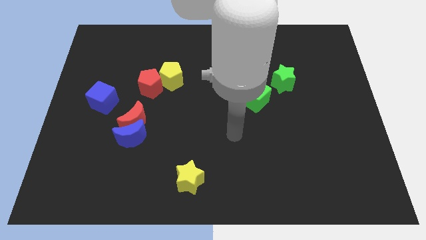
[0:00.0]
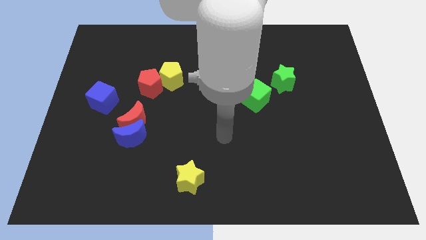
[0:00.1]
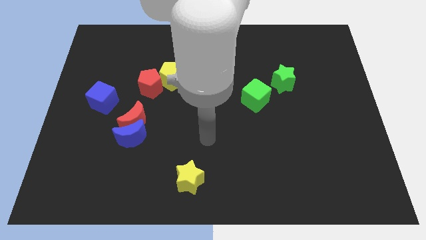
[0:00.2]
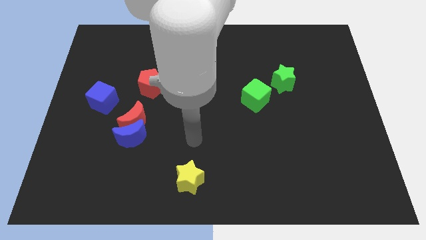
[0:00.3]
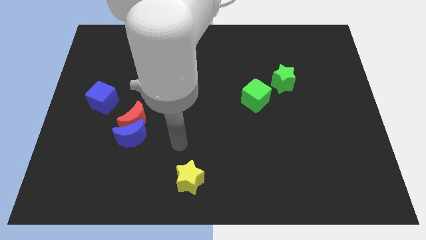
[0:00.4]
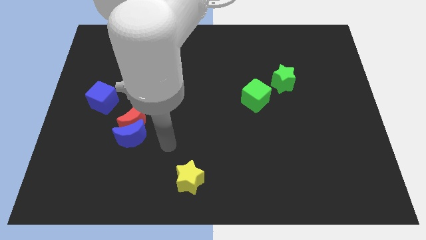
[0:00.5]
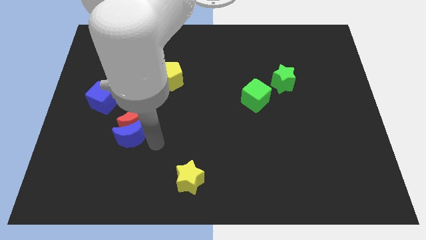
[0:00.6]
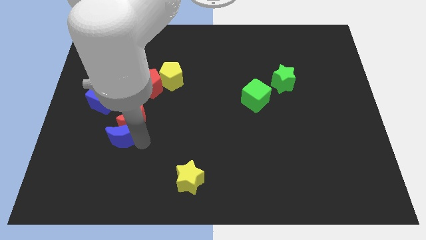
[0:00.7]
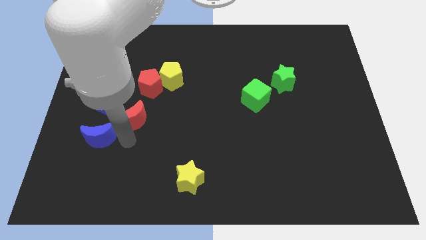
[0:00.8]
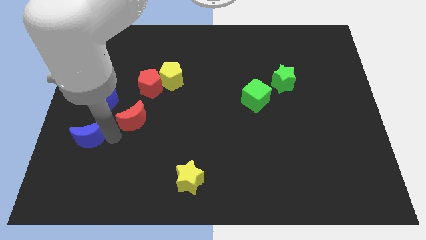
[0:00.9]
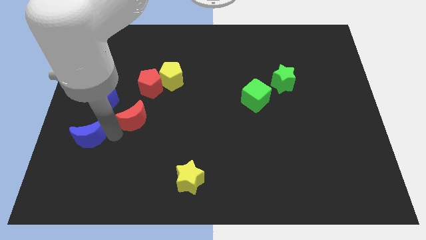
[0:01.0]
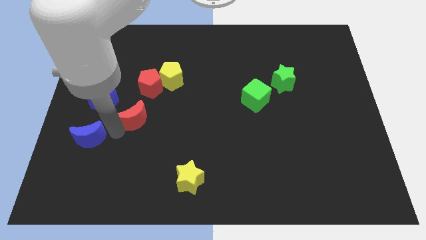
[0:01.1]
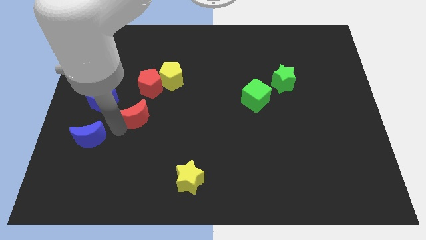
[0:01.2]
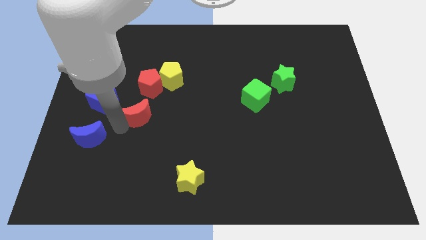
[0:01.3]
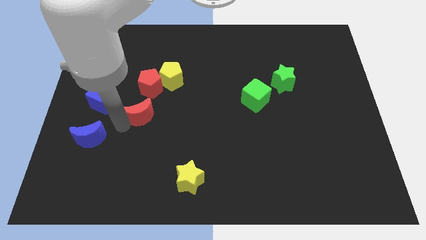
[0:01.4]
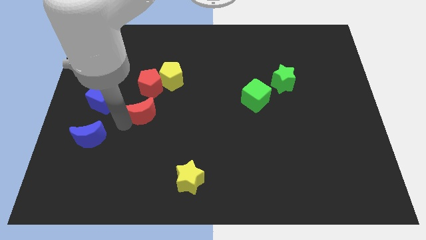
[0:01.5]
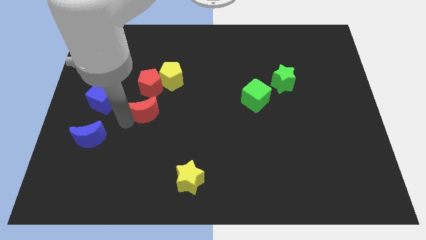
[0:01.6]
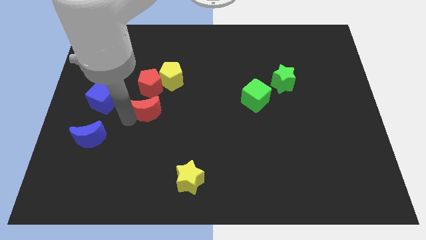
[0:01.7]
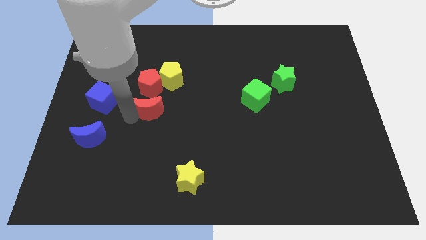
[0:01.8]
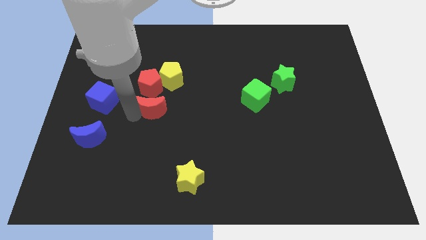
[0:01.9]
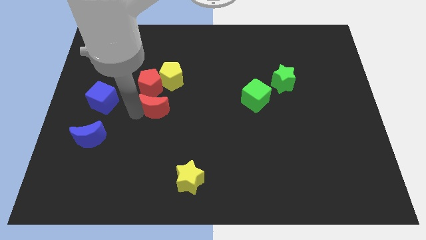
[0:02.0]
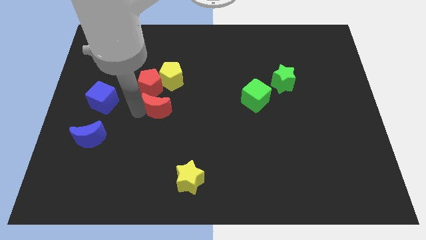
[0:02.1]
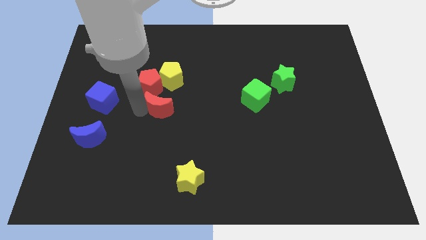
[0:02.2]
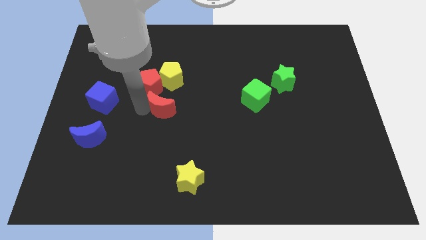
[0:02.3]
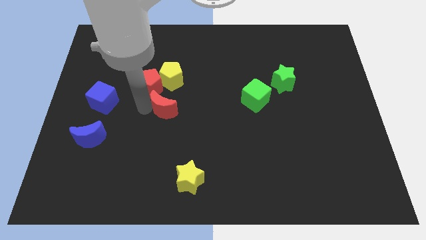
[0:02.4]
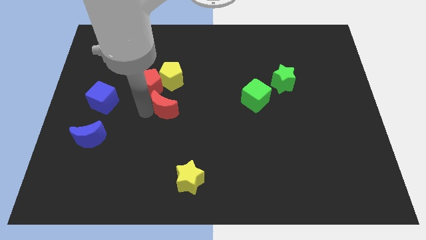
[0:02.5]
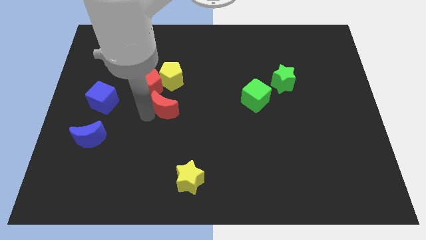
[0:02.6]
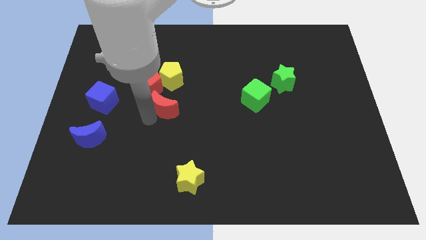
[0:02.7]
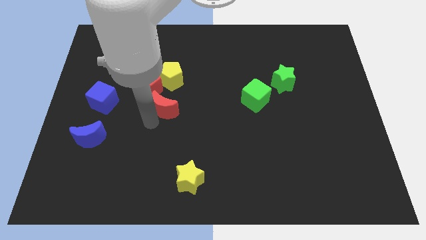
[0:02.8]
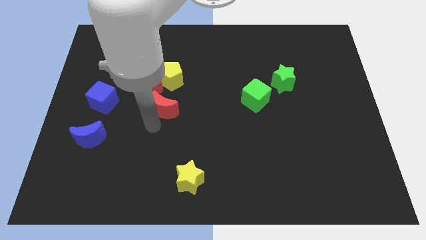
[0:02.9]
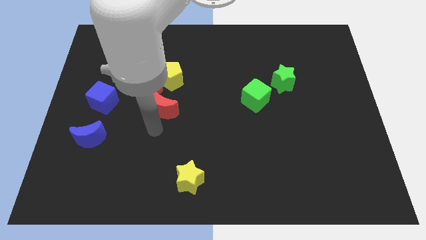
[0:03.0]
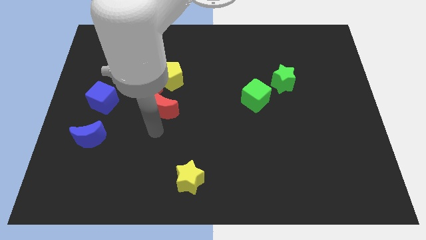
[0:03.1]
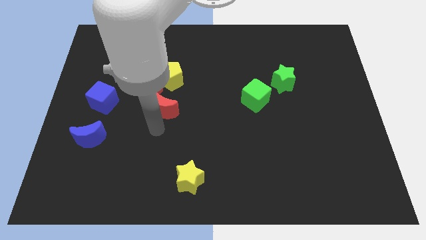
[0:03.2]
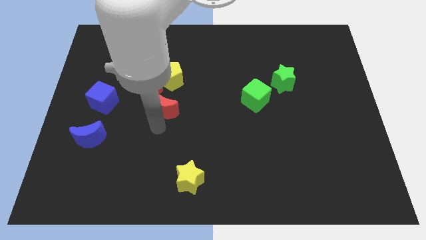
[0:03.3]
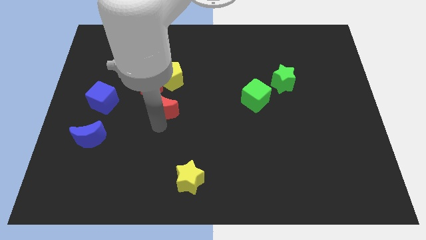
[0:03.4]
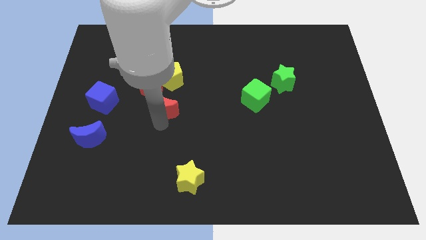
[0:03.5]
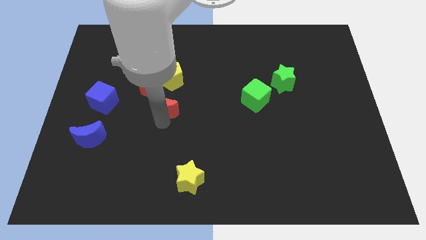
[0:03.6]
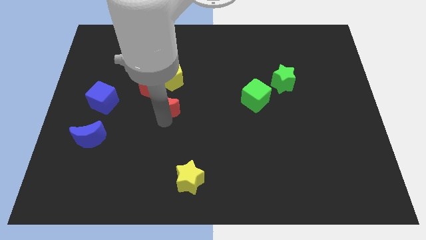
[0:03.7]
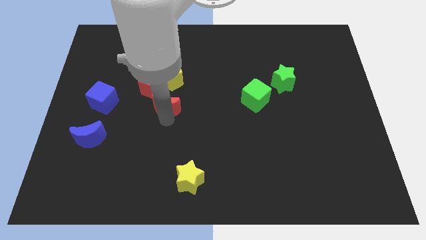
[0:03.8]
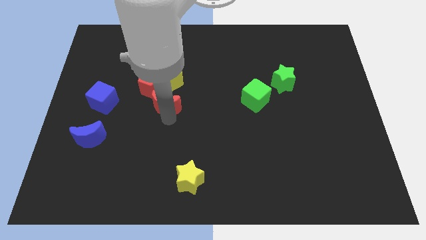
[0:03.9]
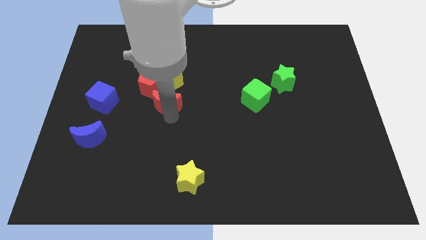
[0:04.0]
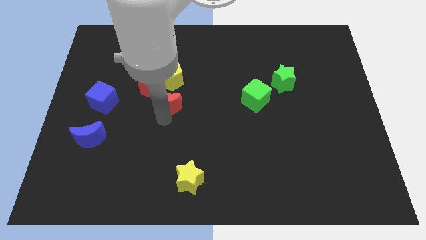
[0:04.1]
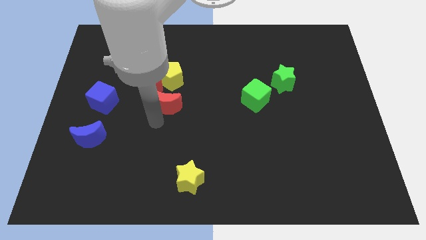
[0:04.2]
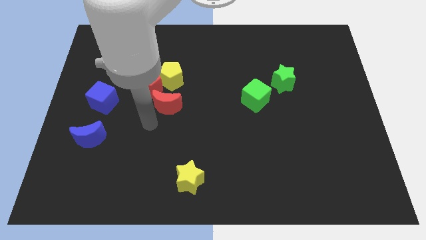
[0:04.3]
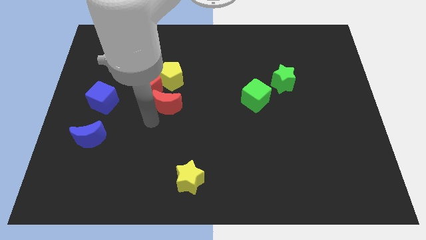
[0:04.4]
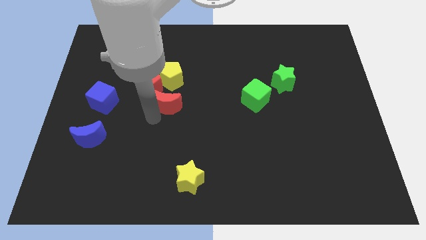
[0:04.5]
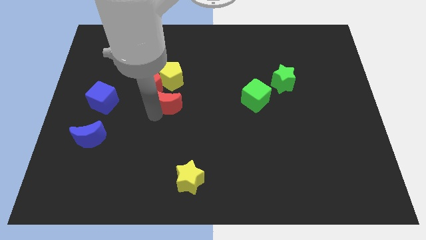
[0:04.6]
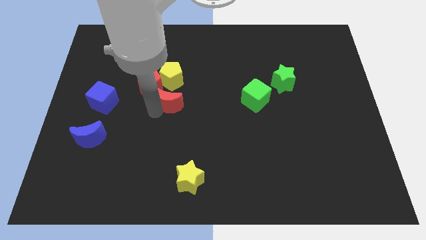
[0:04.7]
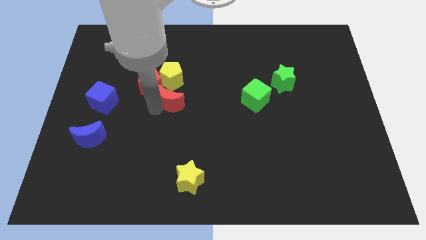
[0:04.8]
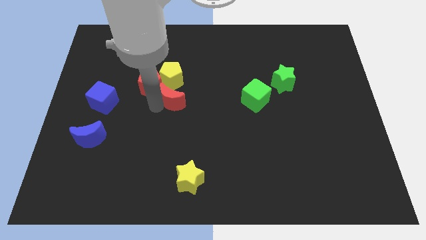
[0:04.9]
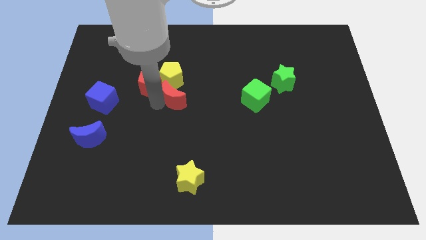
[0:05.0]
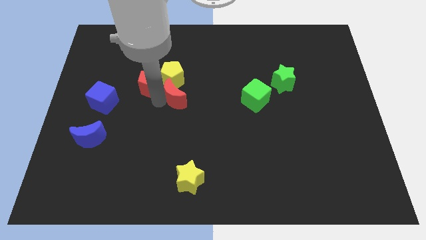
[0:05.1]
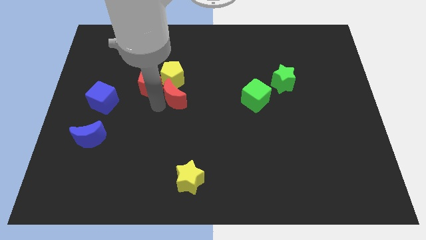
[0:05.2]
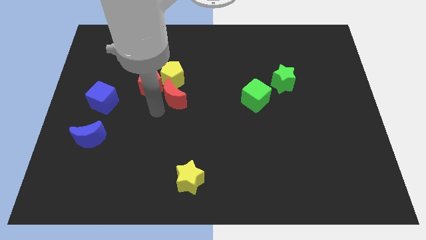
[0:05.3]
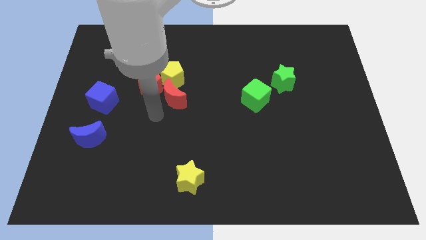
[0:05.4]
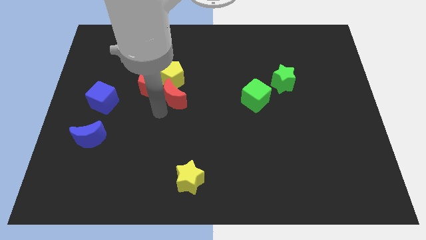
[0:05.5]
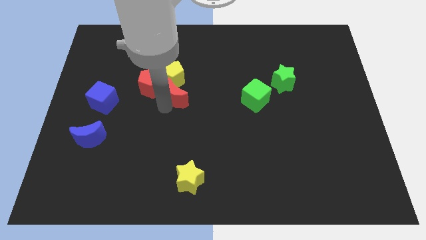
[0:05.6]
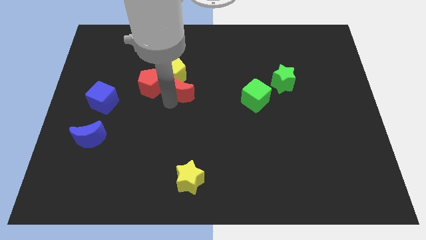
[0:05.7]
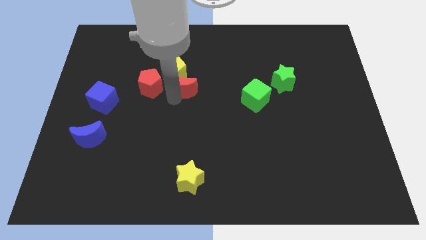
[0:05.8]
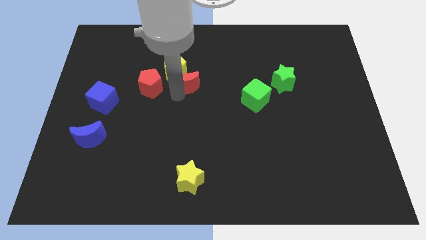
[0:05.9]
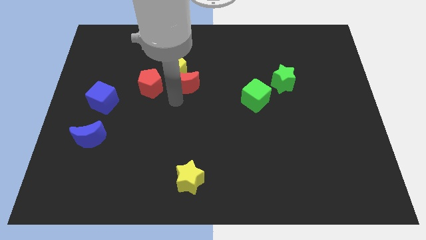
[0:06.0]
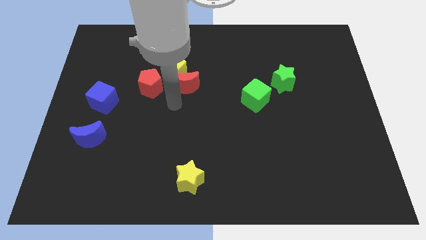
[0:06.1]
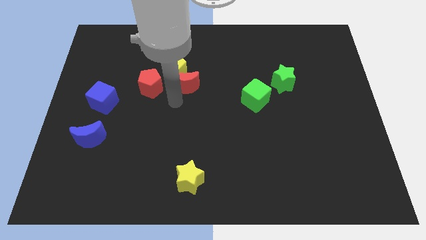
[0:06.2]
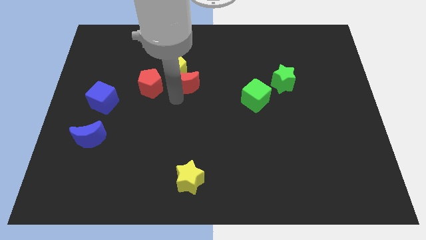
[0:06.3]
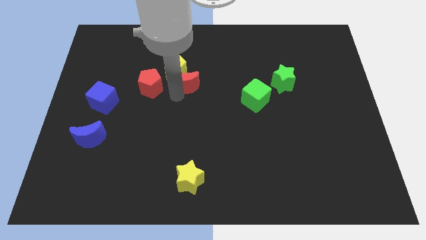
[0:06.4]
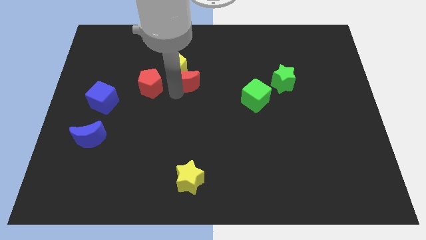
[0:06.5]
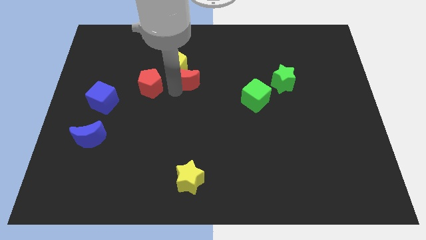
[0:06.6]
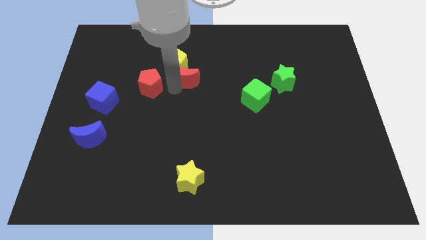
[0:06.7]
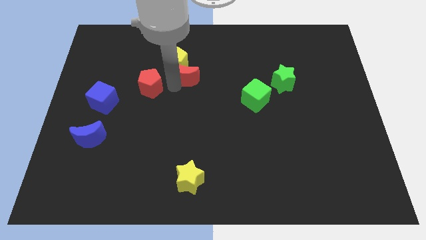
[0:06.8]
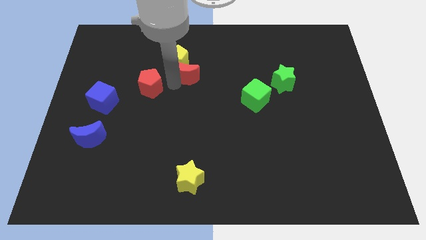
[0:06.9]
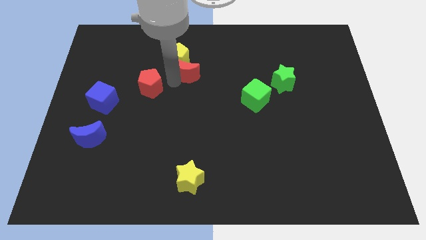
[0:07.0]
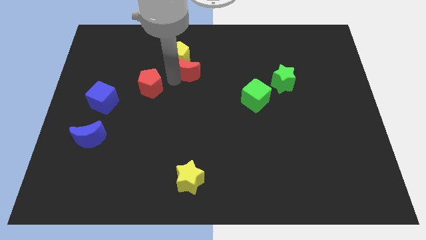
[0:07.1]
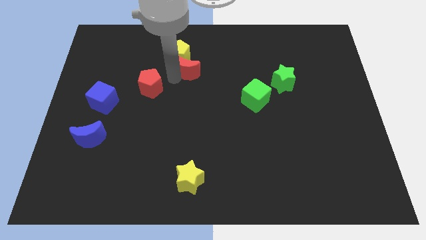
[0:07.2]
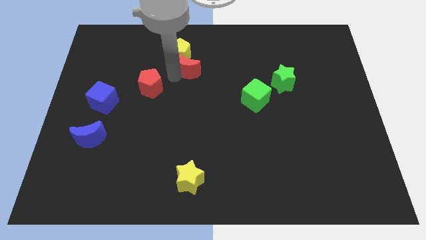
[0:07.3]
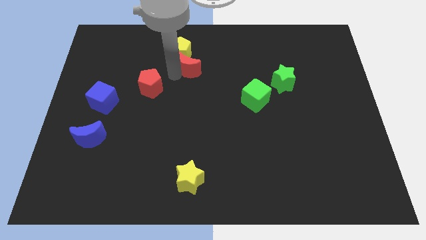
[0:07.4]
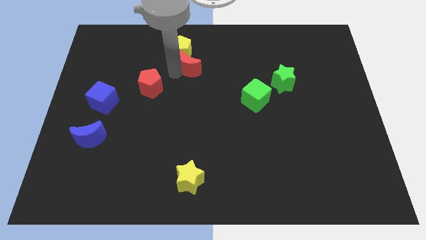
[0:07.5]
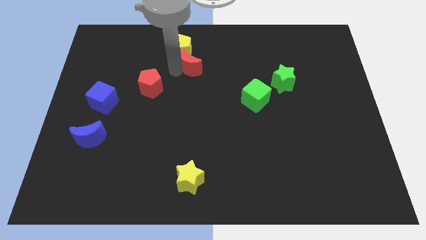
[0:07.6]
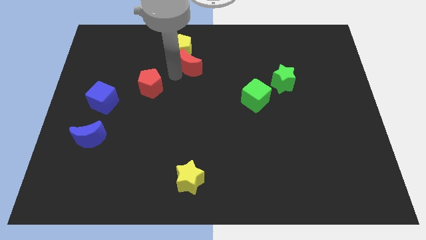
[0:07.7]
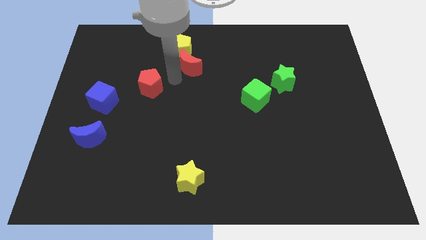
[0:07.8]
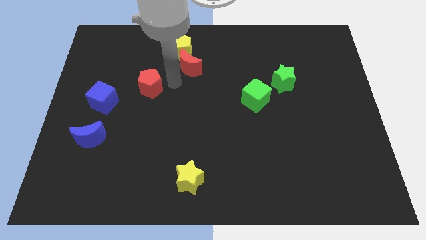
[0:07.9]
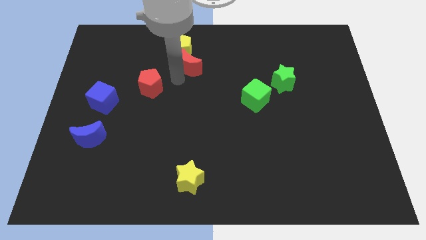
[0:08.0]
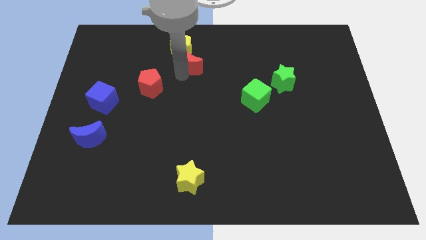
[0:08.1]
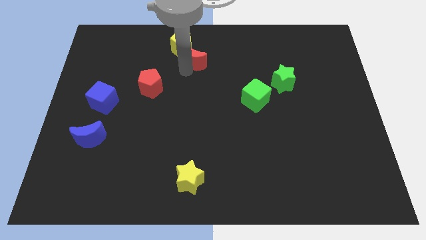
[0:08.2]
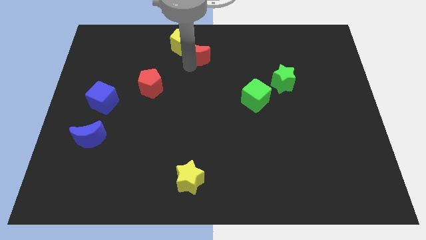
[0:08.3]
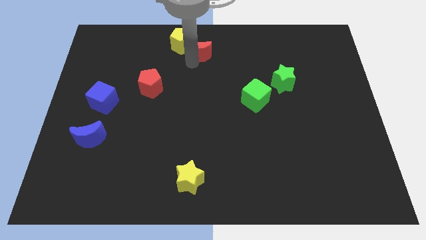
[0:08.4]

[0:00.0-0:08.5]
push the red moon to the towards your base
